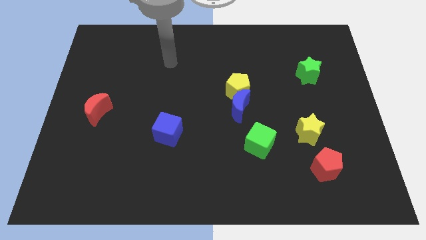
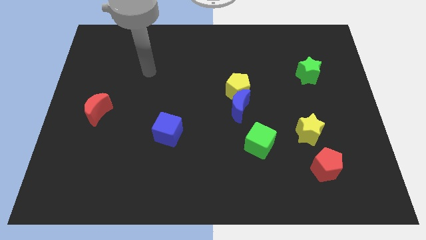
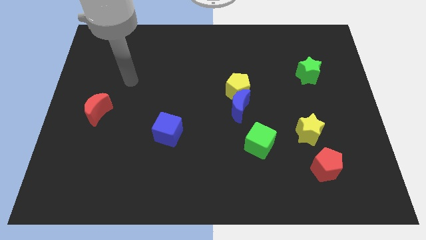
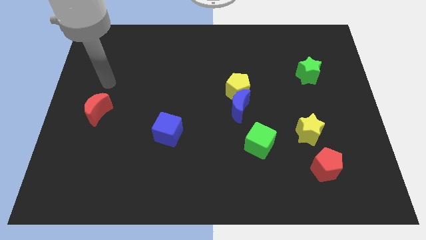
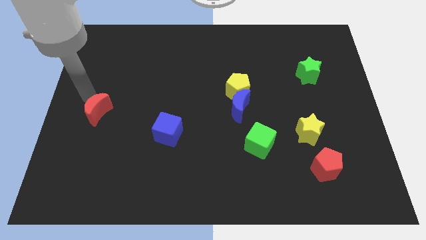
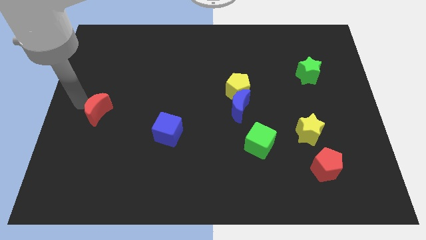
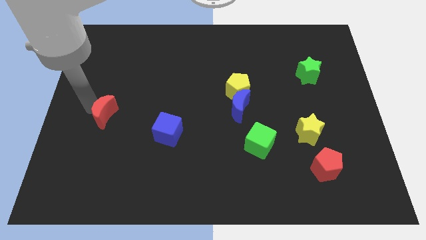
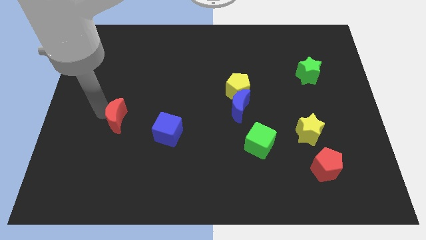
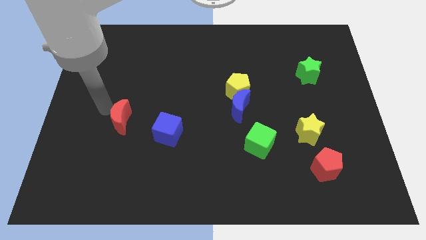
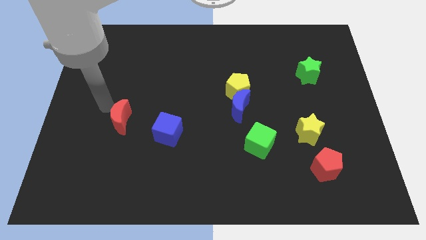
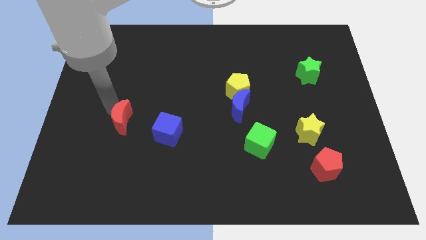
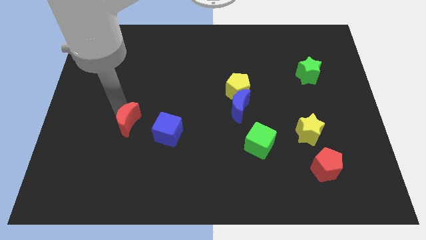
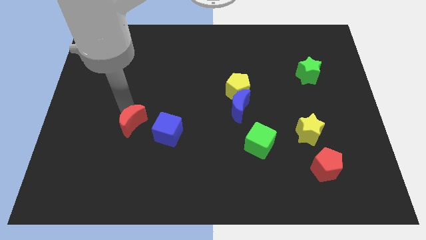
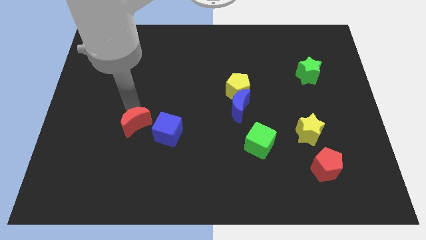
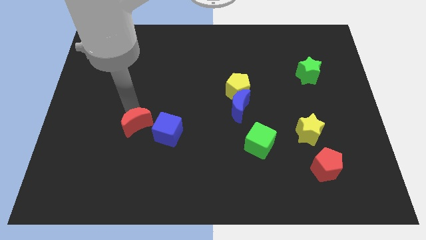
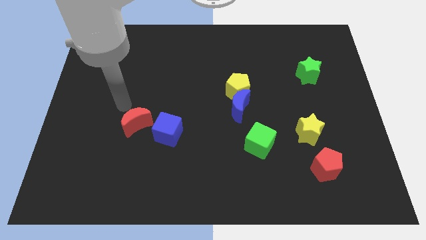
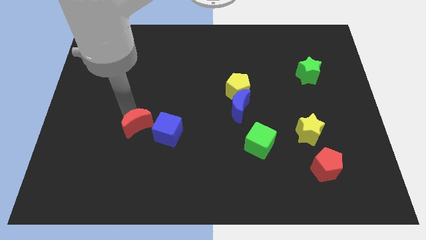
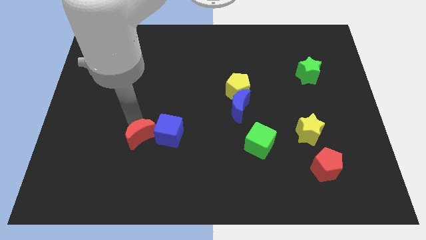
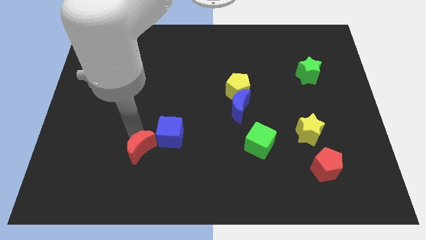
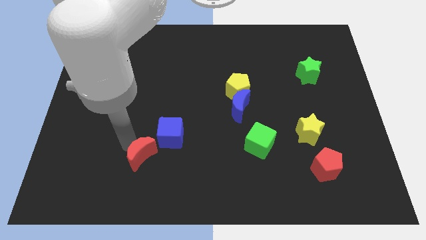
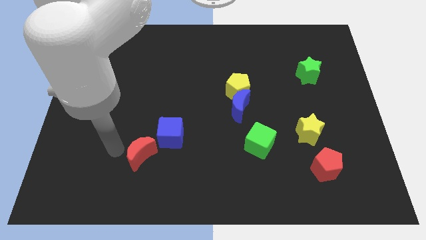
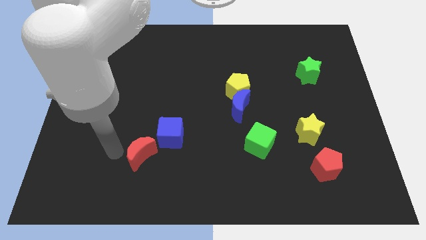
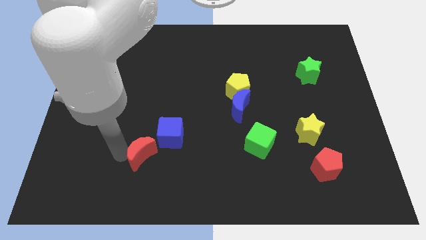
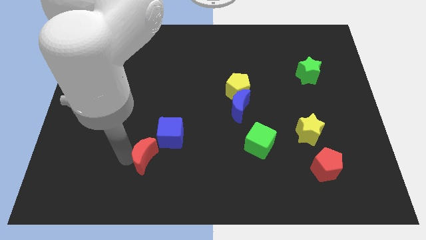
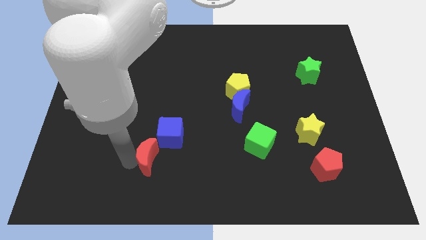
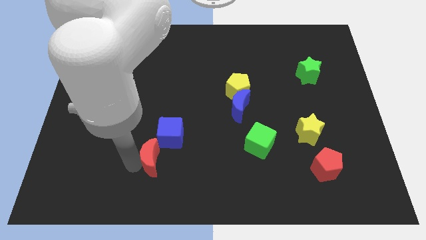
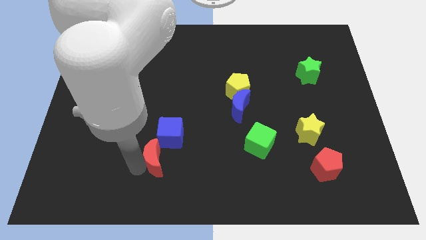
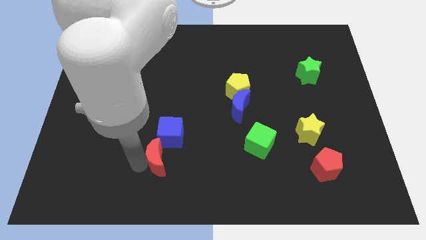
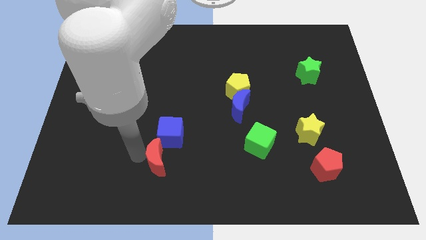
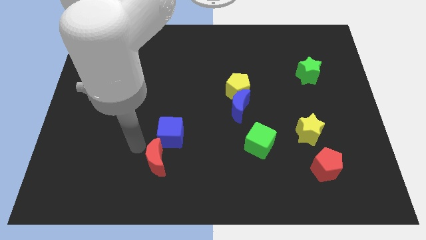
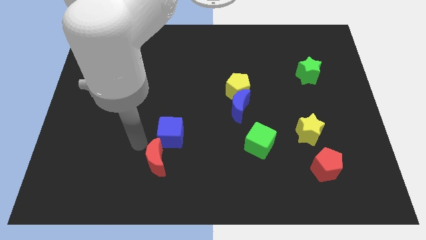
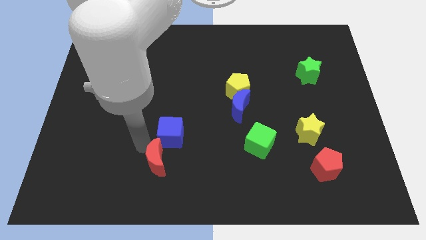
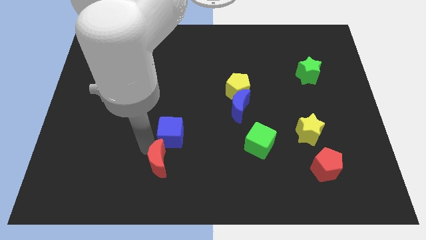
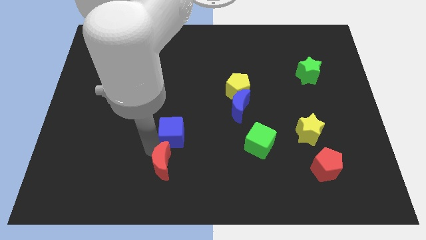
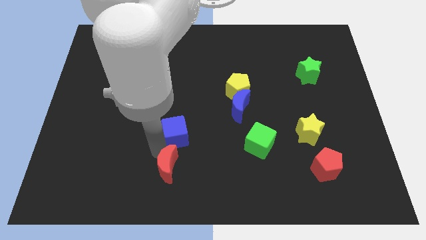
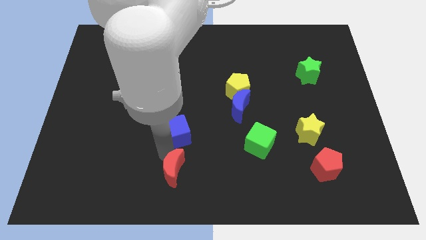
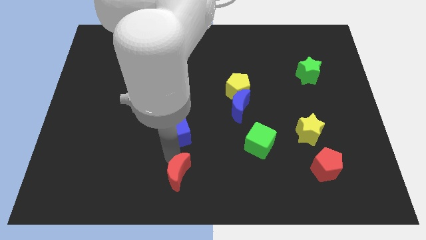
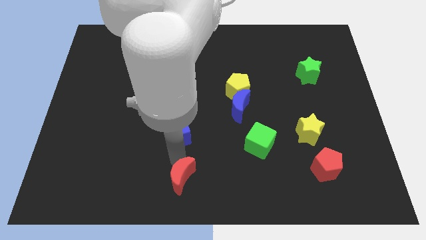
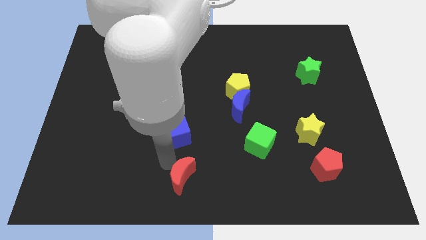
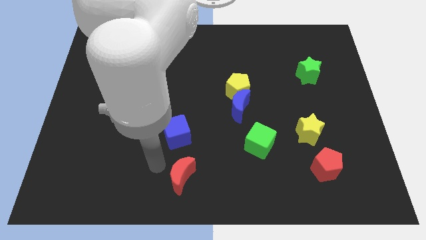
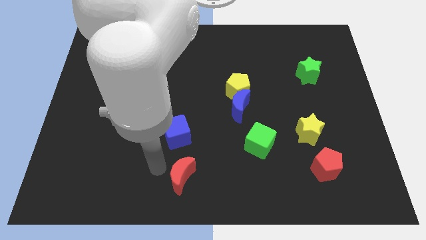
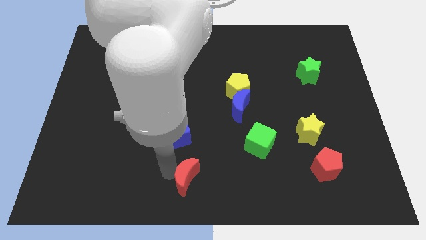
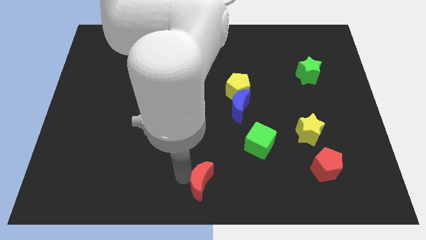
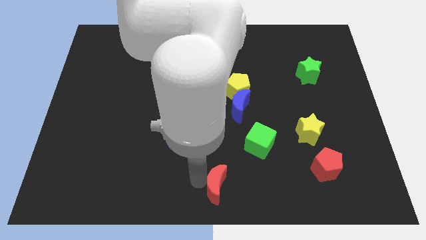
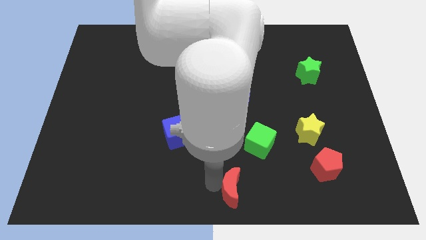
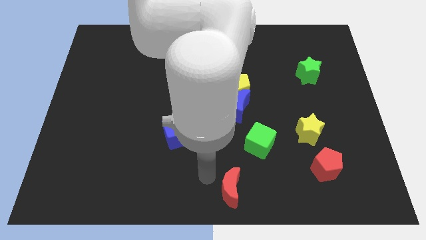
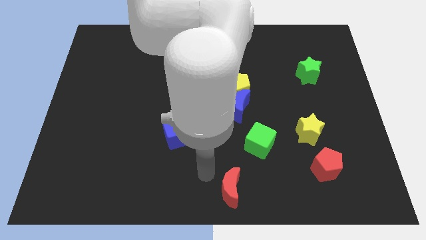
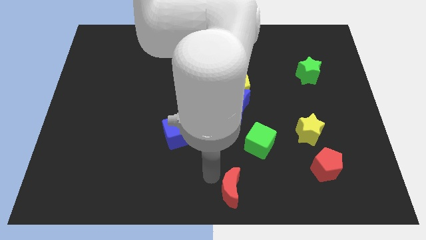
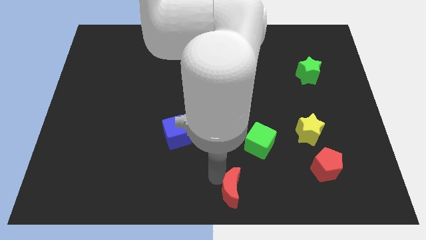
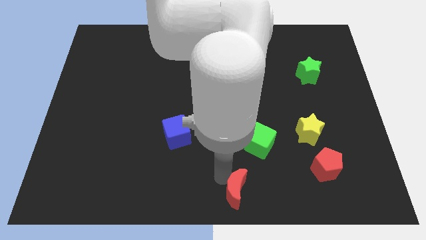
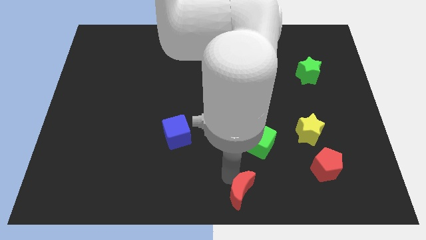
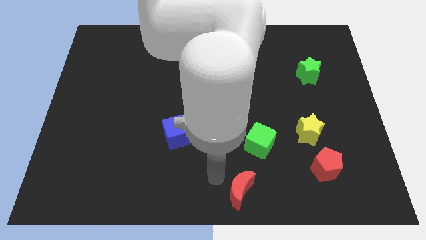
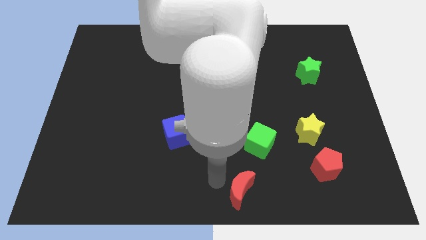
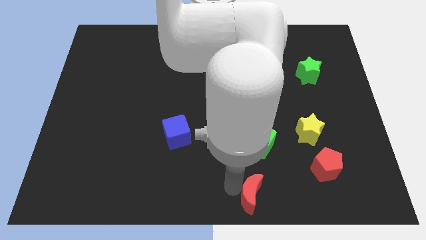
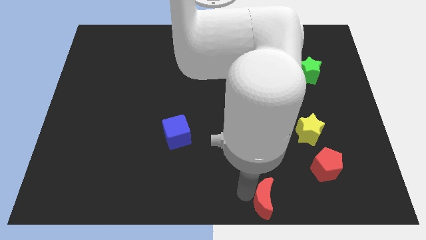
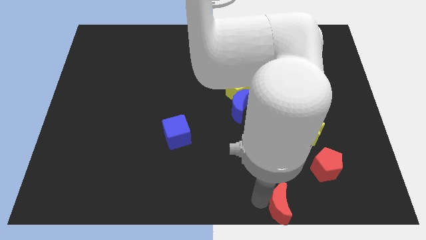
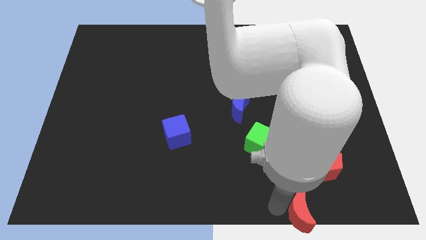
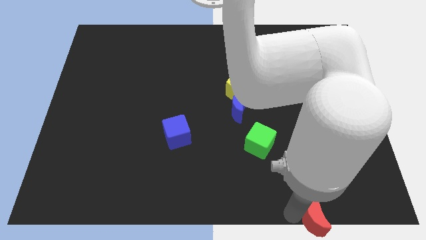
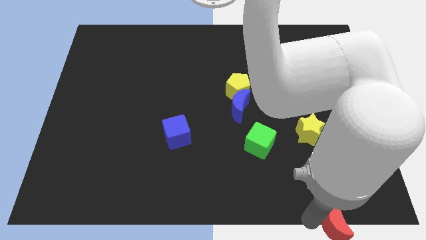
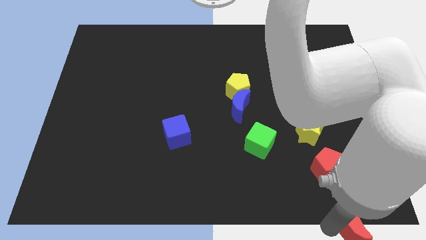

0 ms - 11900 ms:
push the red moon to the lower right corner

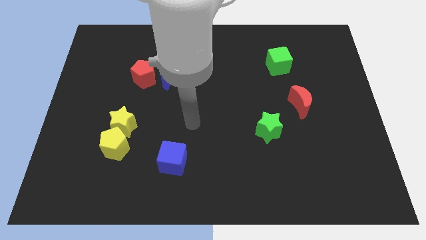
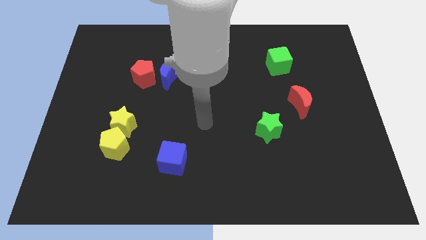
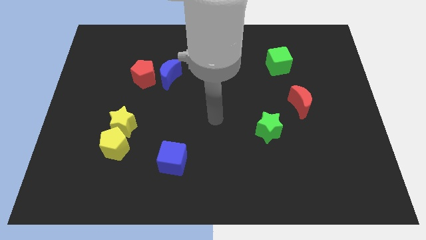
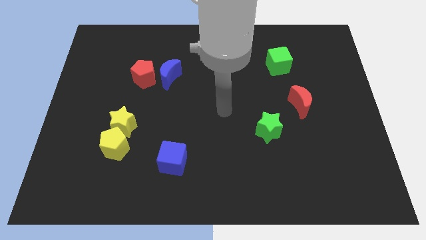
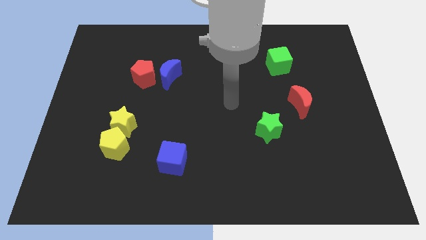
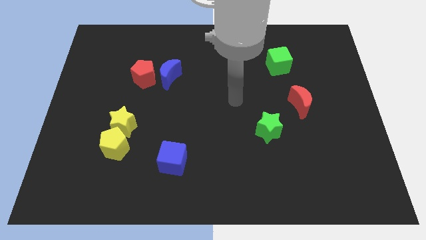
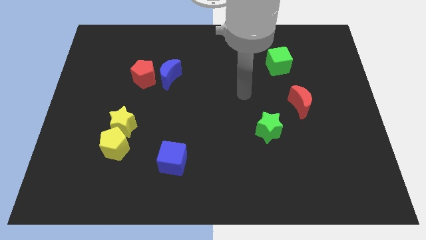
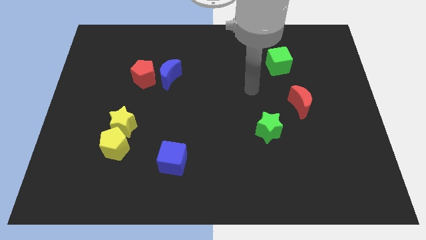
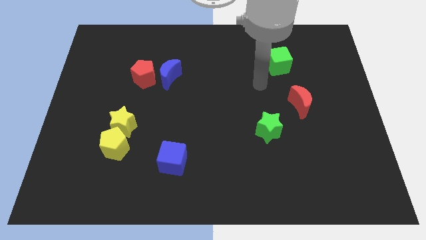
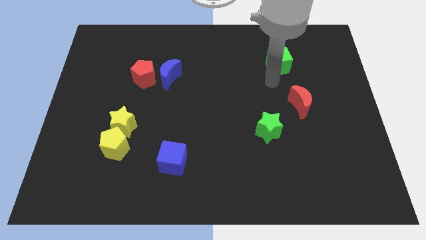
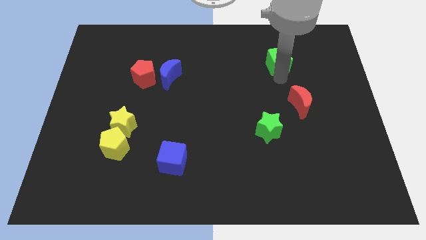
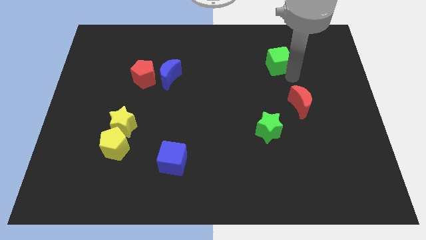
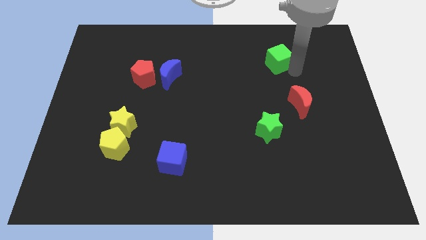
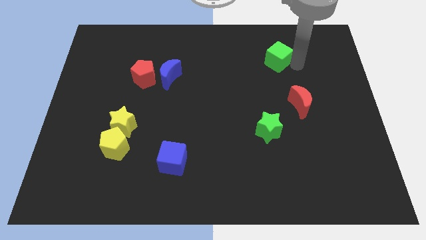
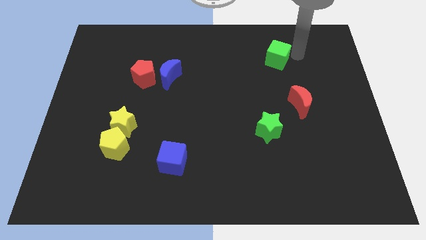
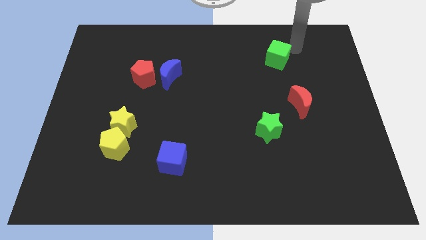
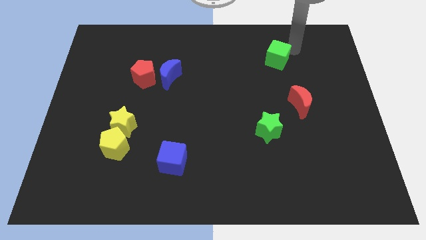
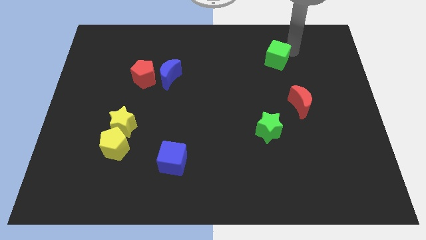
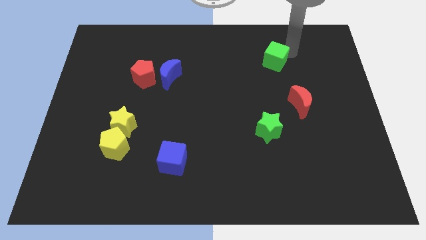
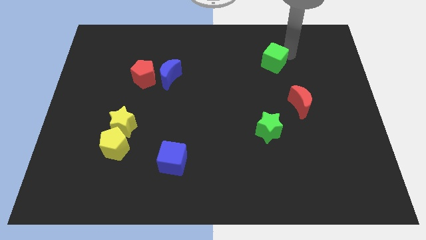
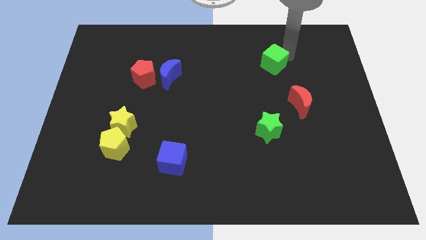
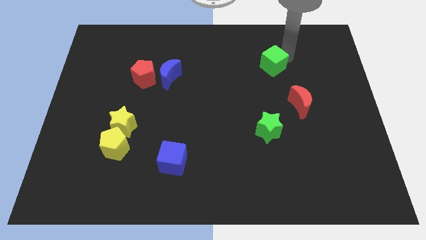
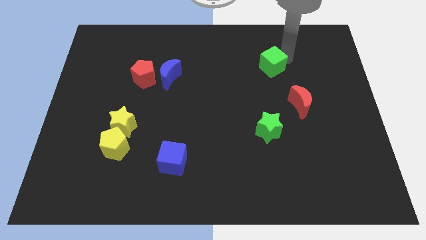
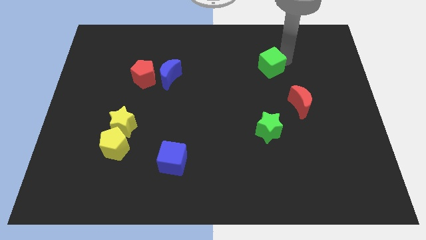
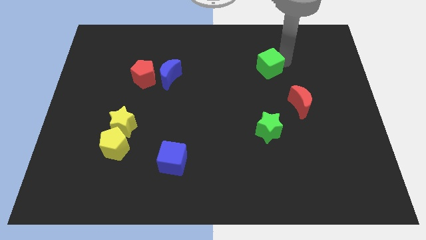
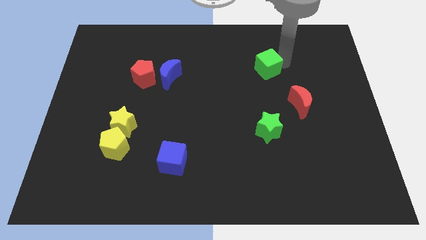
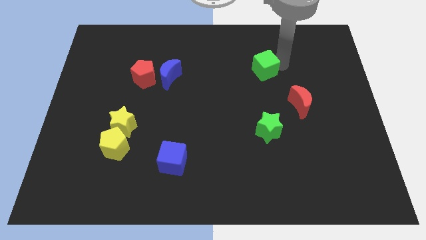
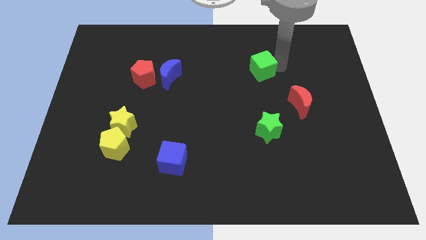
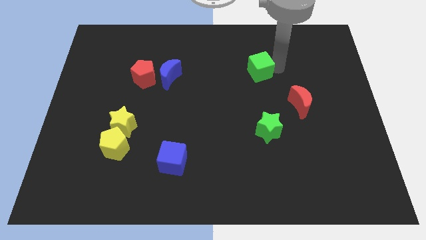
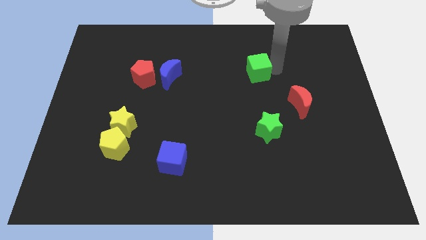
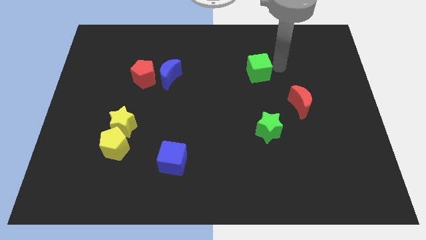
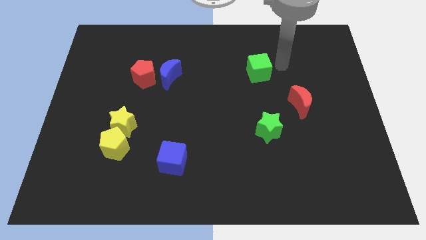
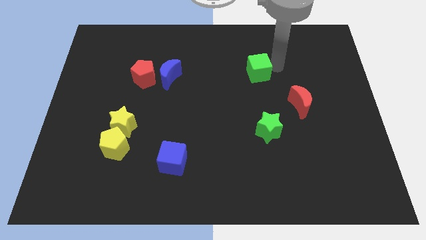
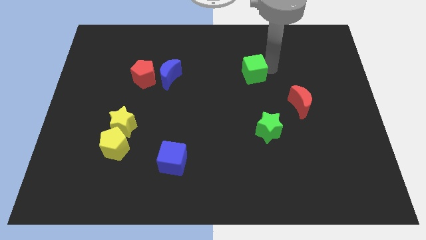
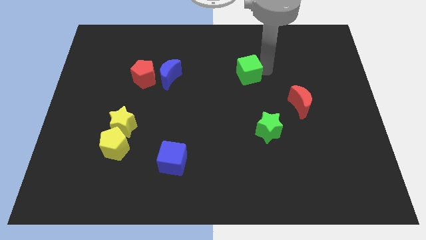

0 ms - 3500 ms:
slide the green cube to the center of the board
